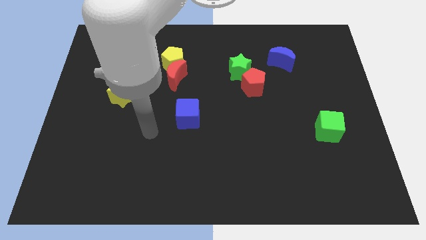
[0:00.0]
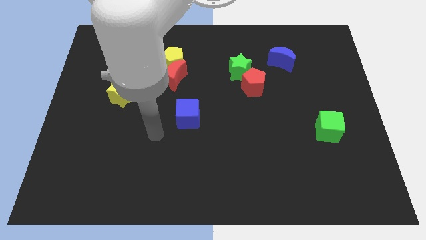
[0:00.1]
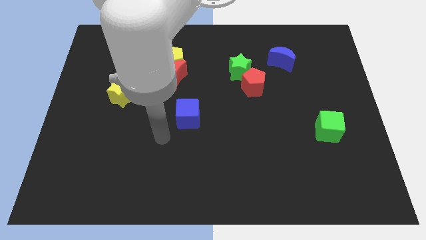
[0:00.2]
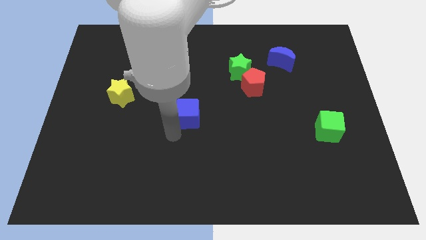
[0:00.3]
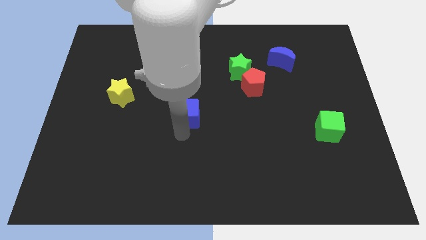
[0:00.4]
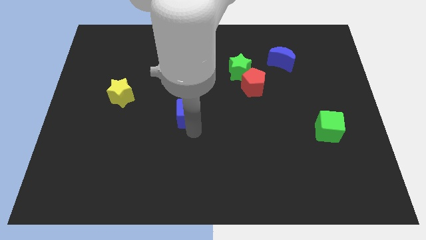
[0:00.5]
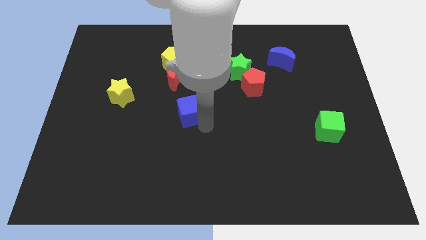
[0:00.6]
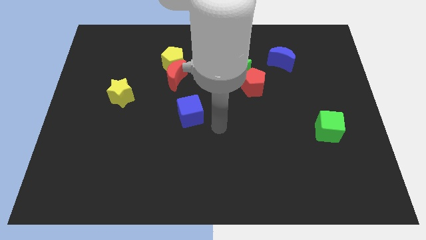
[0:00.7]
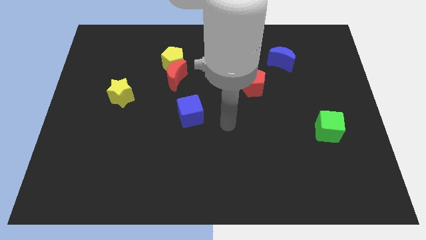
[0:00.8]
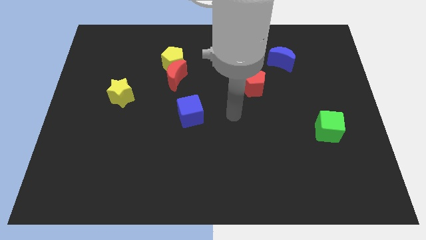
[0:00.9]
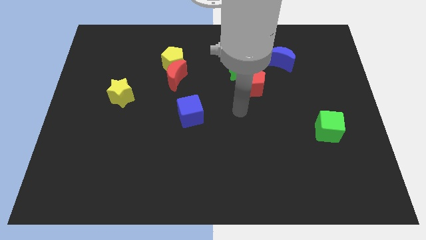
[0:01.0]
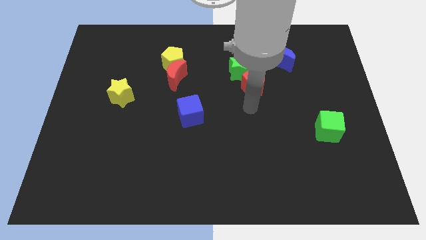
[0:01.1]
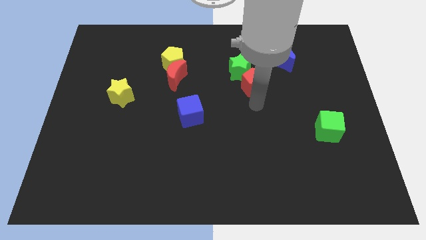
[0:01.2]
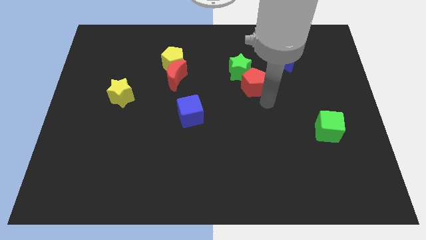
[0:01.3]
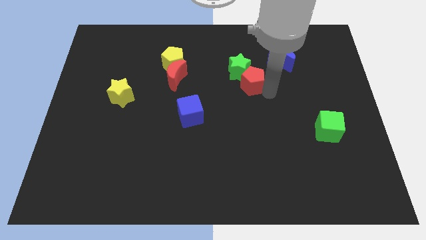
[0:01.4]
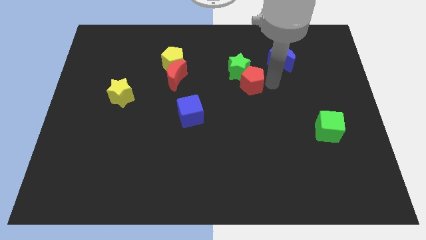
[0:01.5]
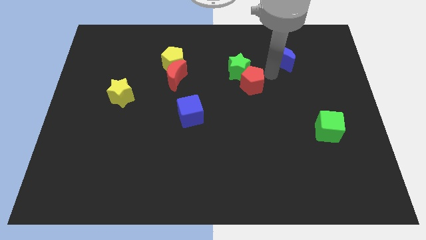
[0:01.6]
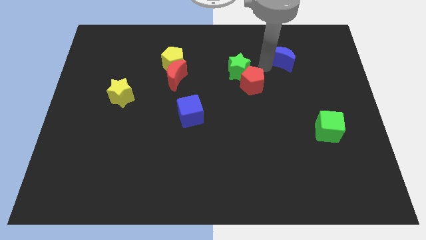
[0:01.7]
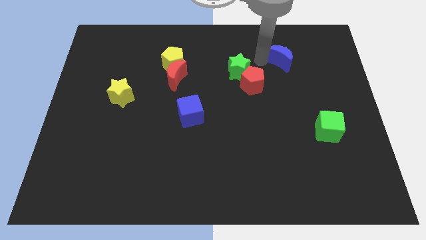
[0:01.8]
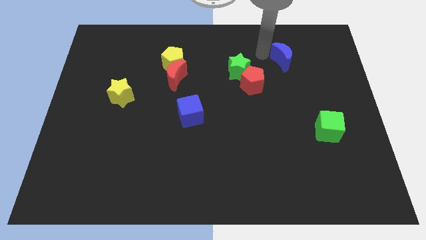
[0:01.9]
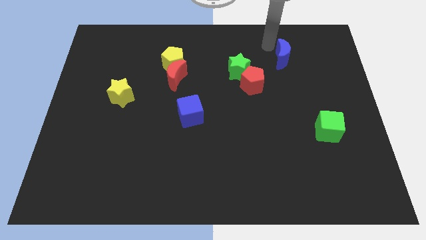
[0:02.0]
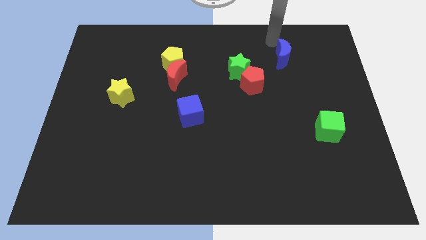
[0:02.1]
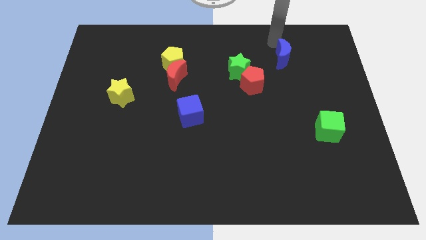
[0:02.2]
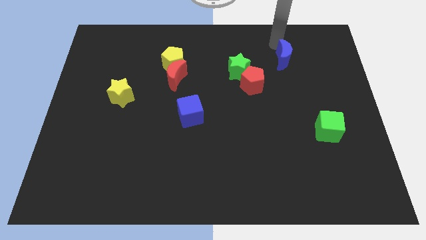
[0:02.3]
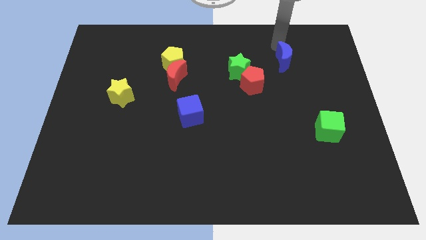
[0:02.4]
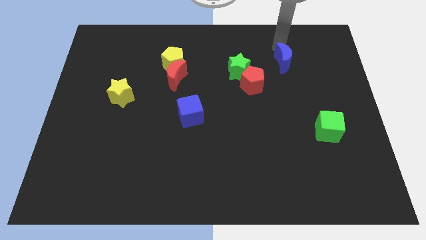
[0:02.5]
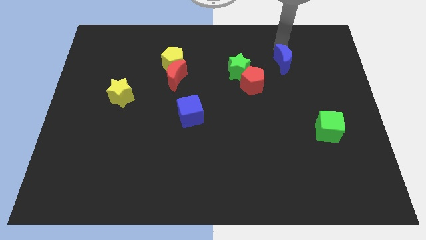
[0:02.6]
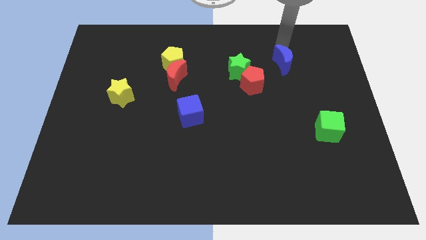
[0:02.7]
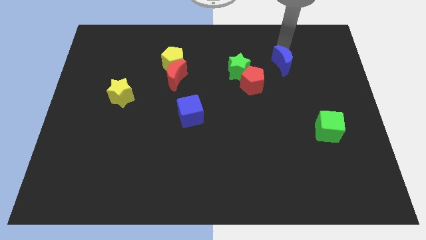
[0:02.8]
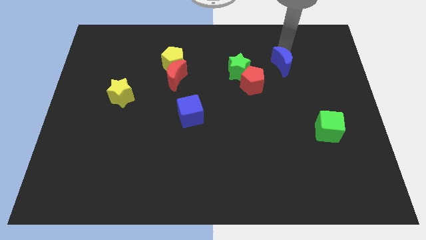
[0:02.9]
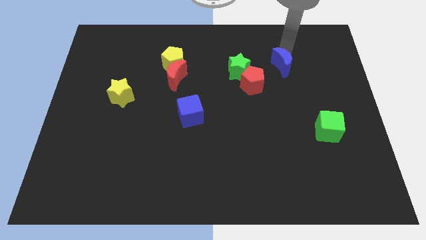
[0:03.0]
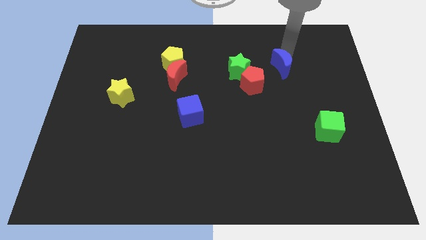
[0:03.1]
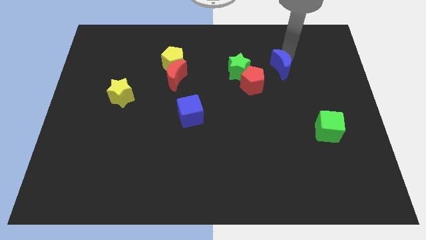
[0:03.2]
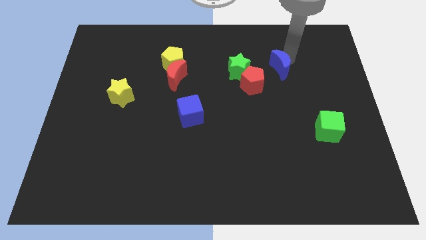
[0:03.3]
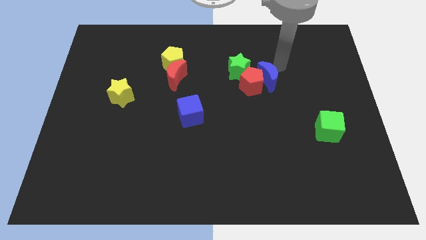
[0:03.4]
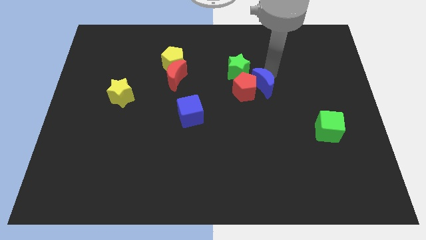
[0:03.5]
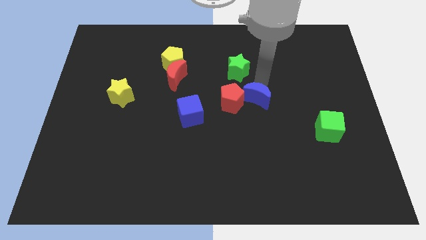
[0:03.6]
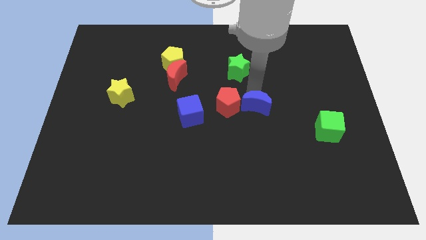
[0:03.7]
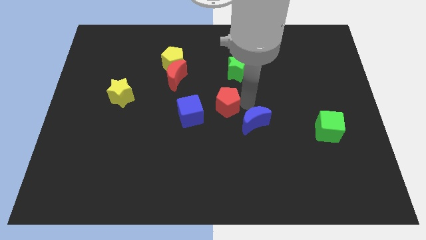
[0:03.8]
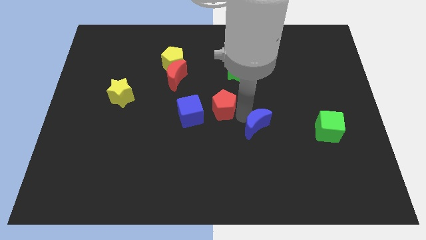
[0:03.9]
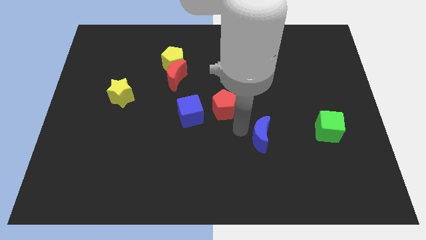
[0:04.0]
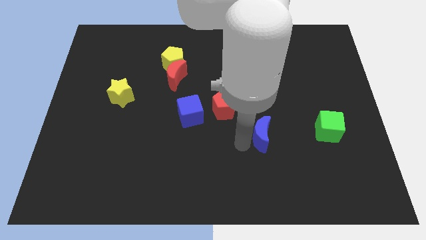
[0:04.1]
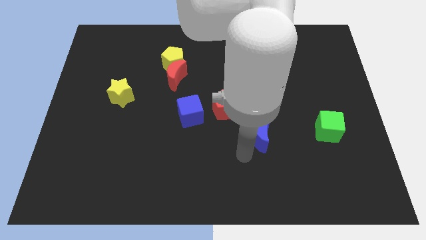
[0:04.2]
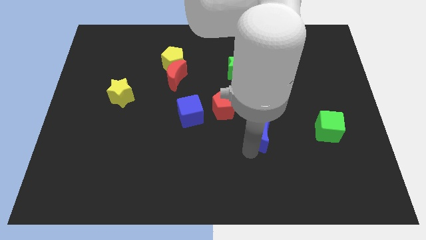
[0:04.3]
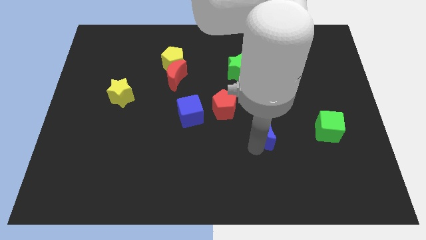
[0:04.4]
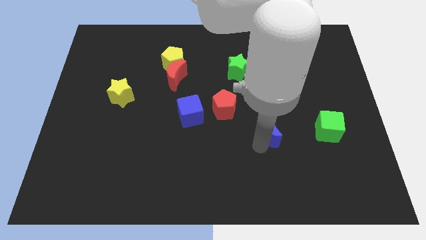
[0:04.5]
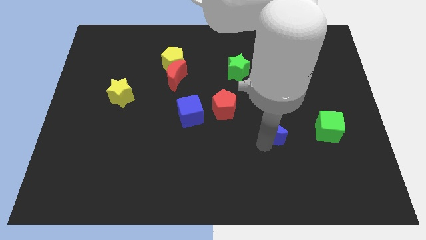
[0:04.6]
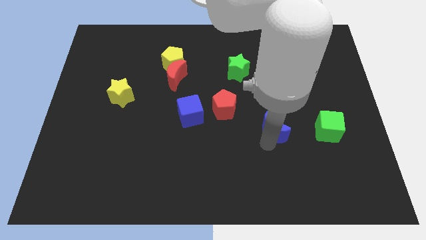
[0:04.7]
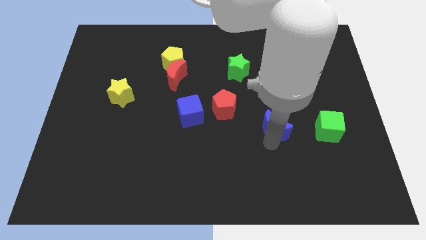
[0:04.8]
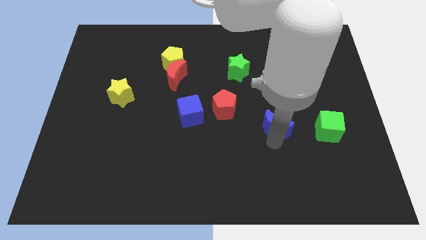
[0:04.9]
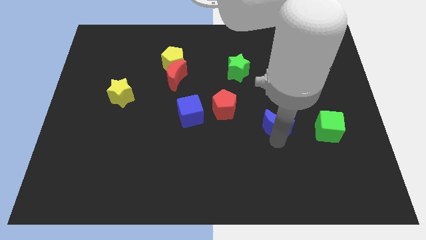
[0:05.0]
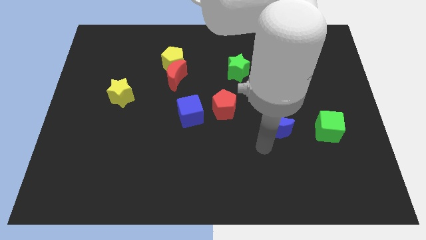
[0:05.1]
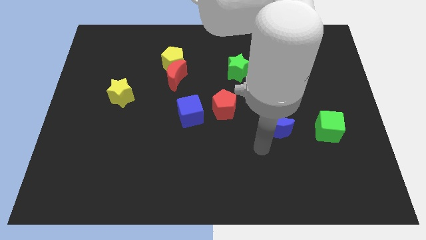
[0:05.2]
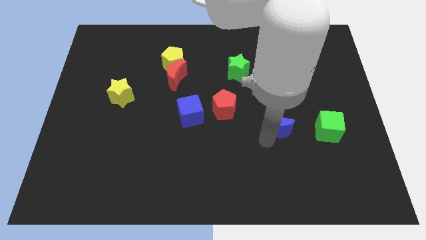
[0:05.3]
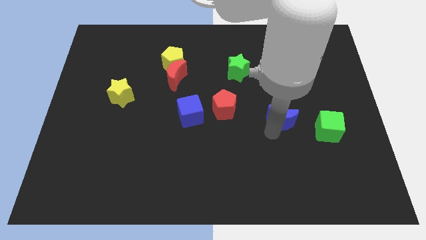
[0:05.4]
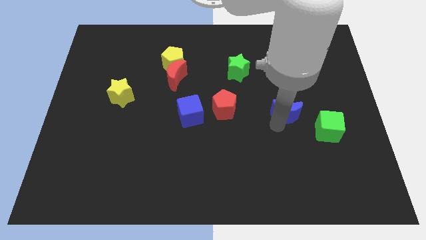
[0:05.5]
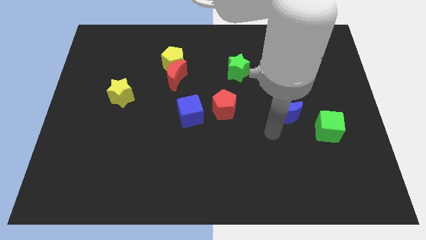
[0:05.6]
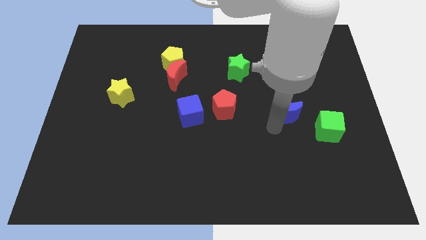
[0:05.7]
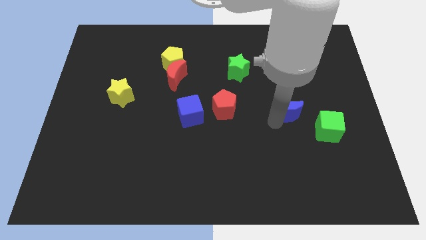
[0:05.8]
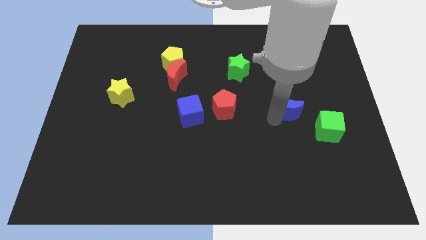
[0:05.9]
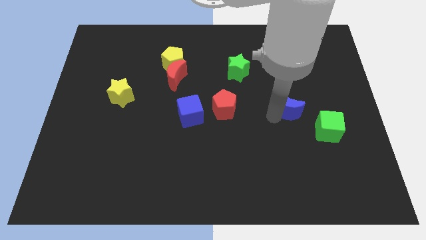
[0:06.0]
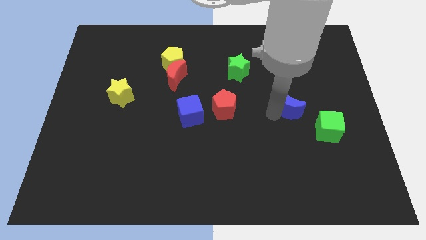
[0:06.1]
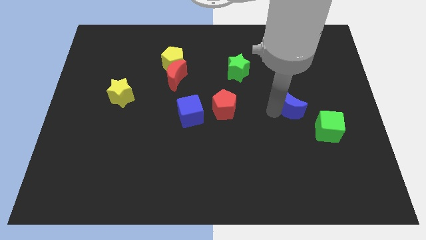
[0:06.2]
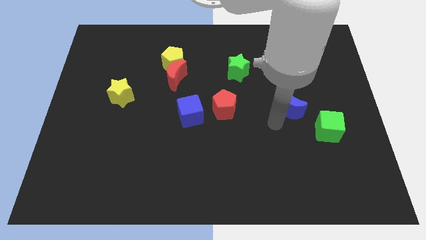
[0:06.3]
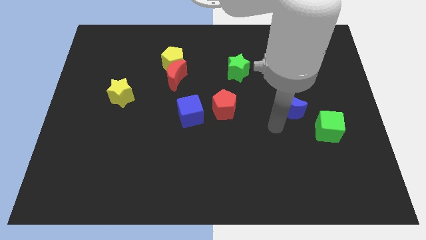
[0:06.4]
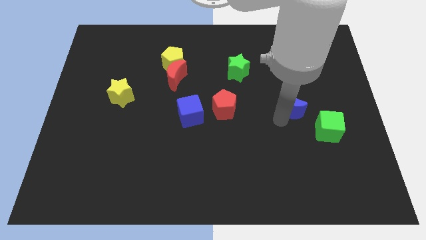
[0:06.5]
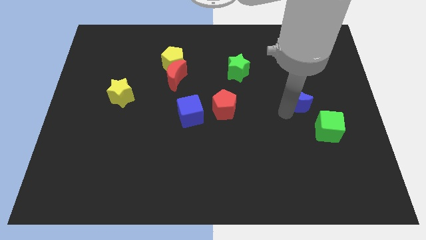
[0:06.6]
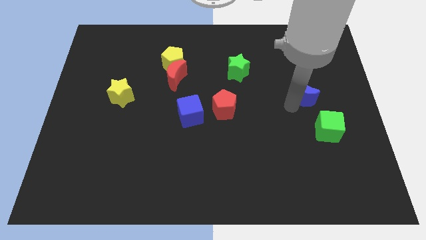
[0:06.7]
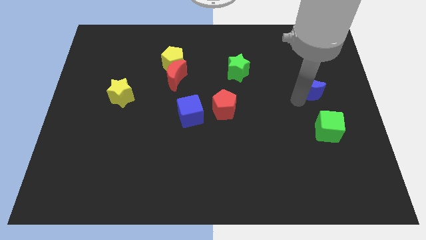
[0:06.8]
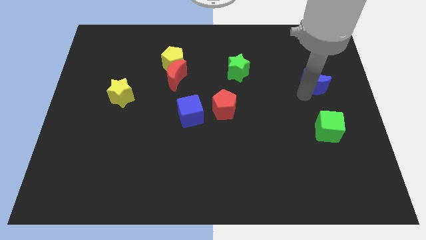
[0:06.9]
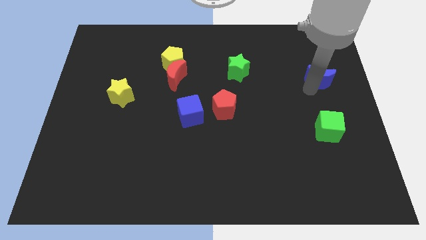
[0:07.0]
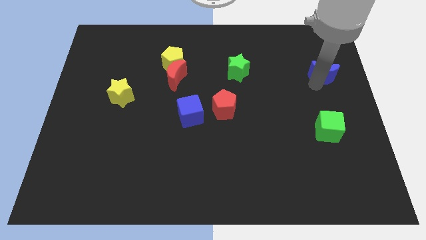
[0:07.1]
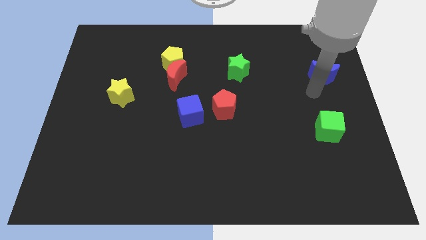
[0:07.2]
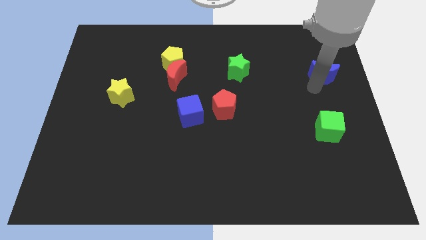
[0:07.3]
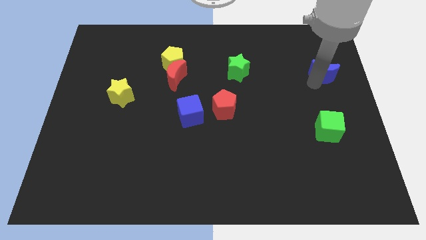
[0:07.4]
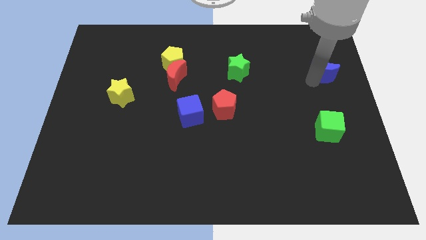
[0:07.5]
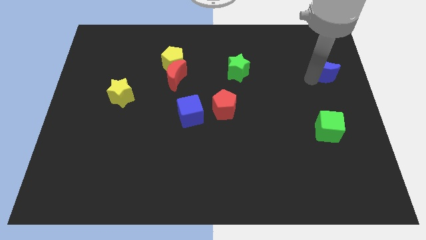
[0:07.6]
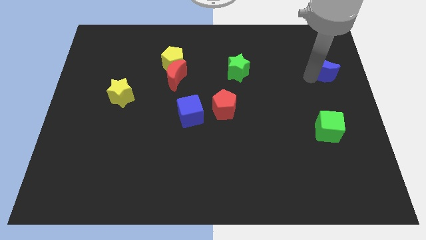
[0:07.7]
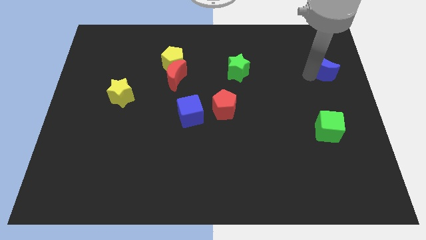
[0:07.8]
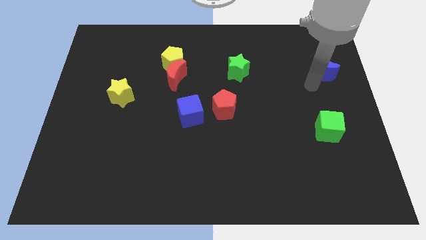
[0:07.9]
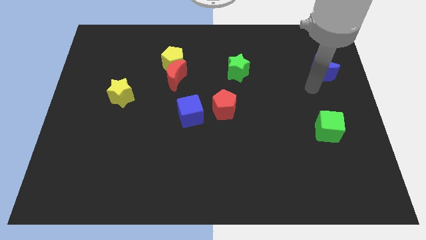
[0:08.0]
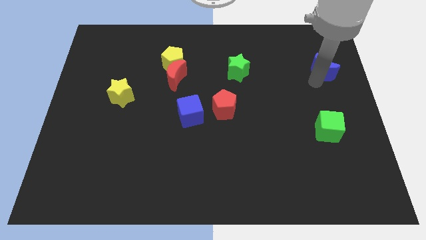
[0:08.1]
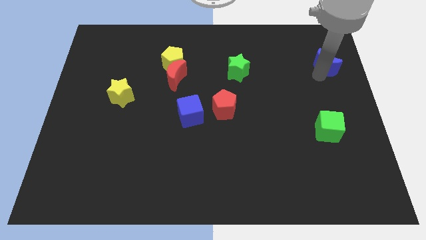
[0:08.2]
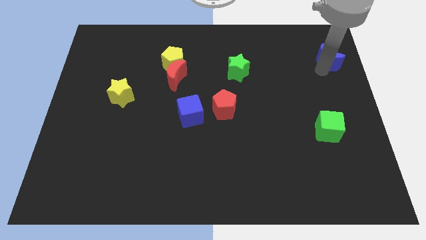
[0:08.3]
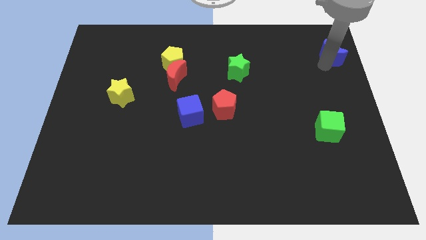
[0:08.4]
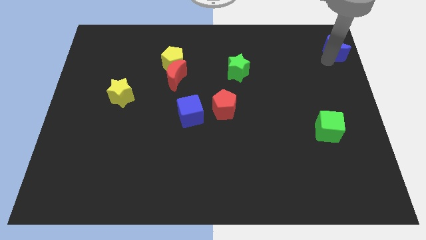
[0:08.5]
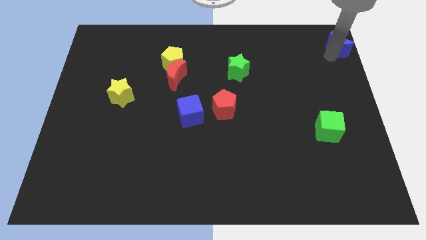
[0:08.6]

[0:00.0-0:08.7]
slide the blue moon to the top right corner
